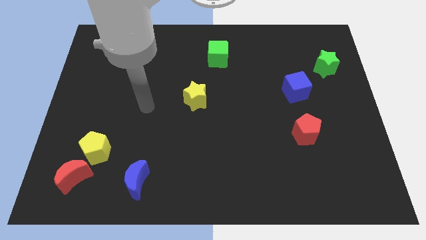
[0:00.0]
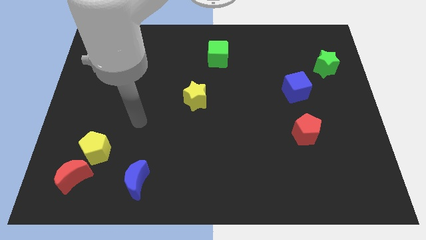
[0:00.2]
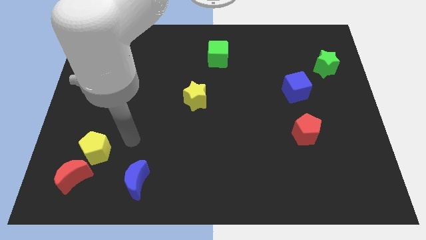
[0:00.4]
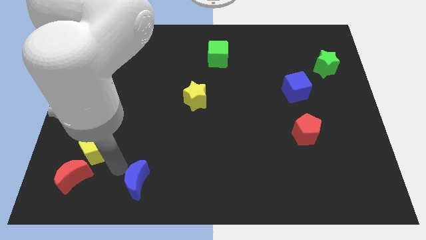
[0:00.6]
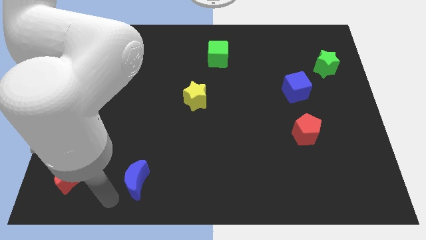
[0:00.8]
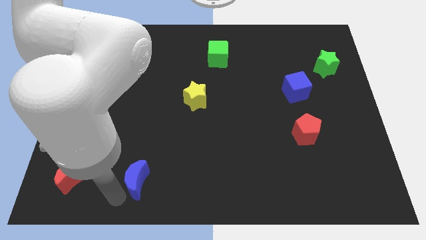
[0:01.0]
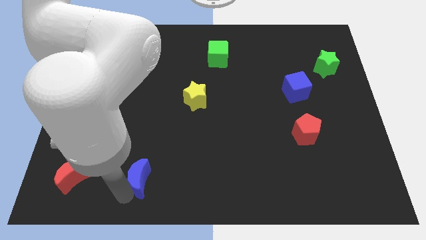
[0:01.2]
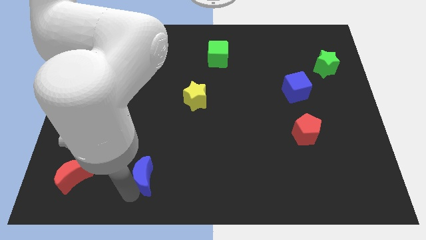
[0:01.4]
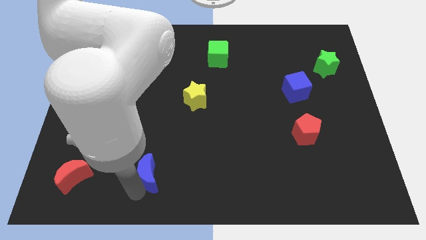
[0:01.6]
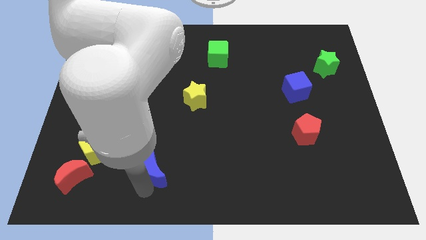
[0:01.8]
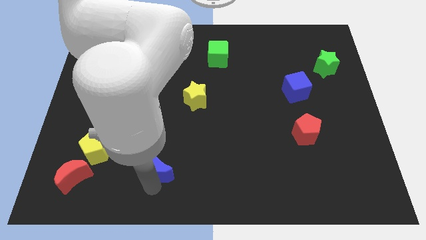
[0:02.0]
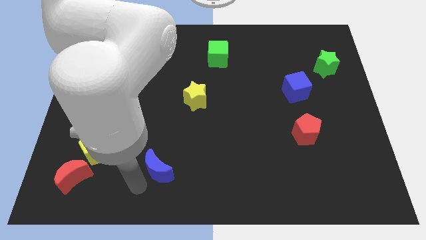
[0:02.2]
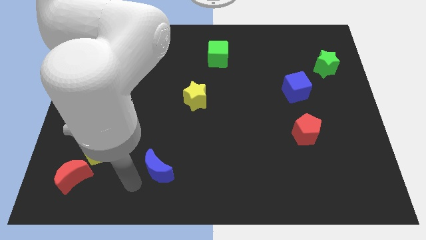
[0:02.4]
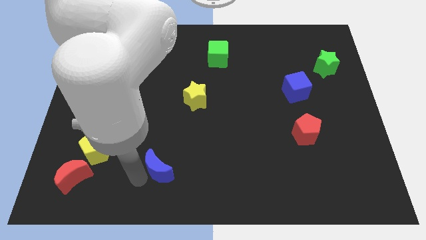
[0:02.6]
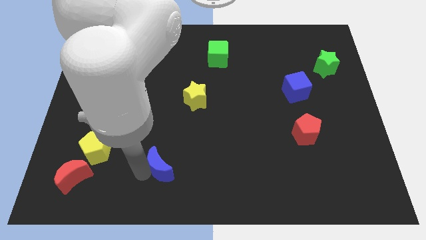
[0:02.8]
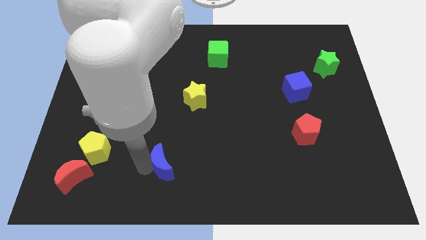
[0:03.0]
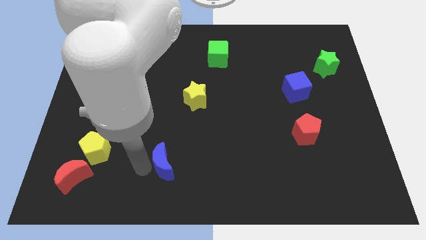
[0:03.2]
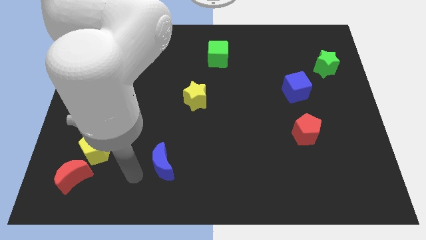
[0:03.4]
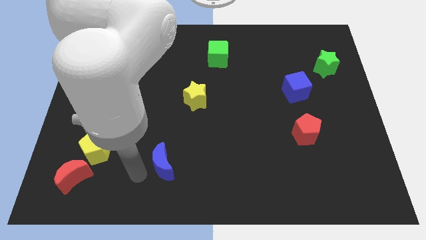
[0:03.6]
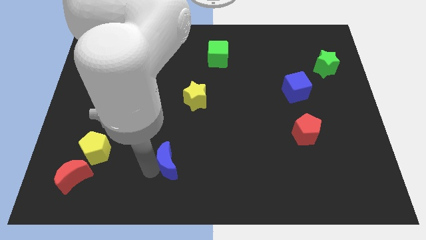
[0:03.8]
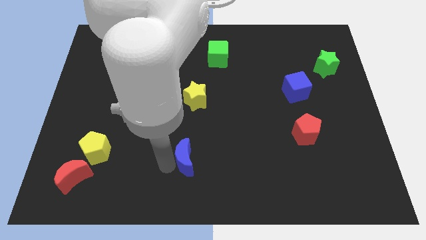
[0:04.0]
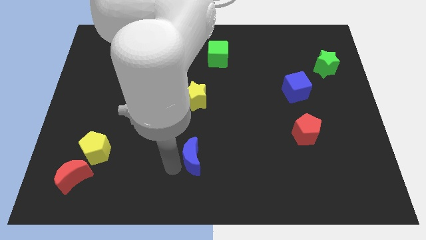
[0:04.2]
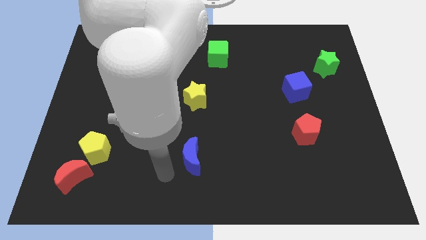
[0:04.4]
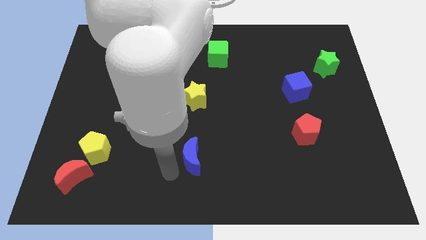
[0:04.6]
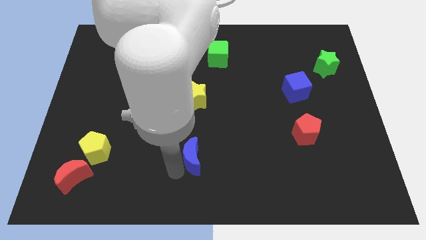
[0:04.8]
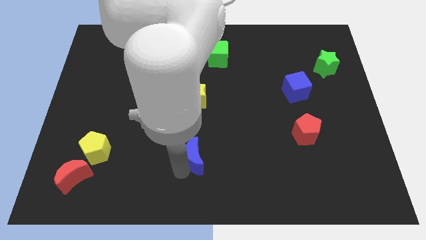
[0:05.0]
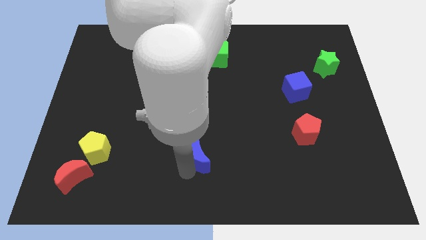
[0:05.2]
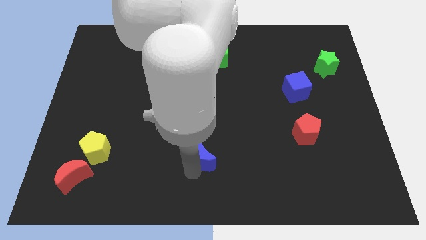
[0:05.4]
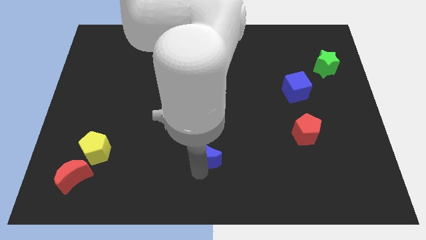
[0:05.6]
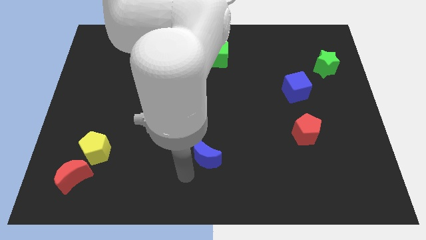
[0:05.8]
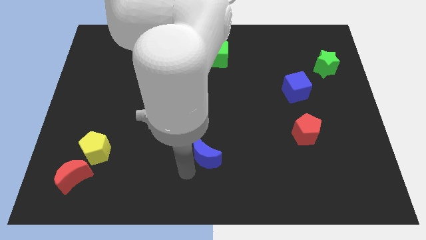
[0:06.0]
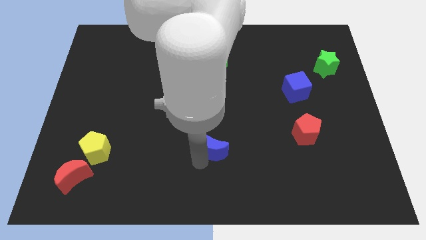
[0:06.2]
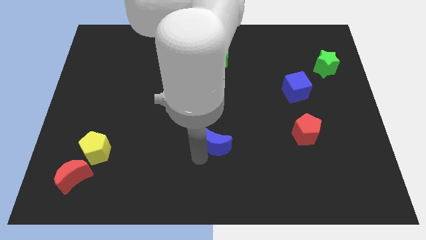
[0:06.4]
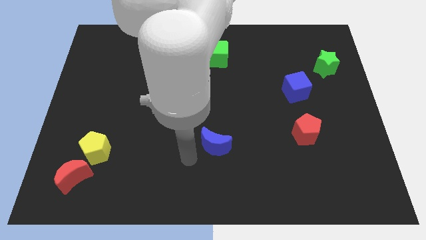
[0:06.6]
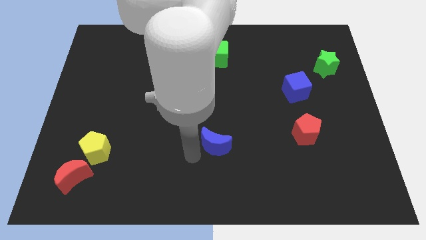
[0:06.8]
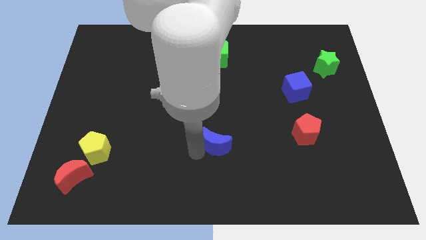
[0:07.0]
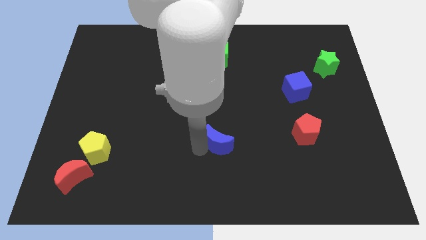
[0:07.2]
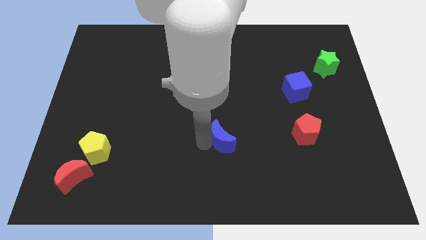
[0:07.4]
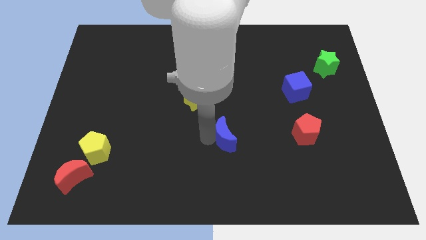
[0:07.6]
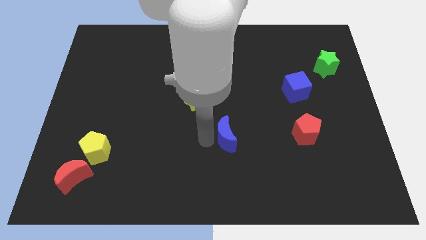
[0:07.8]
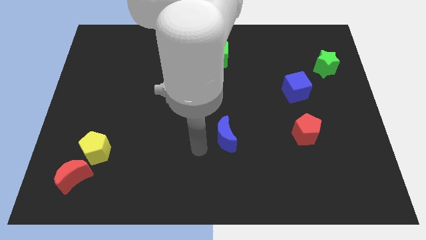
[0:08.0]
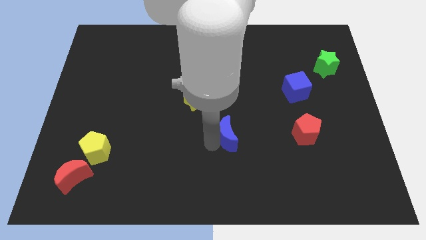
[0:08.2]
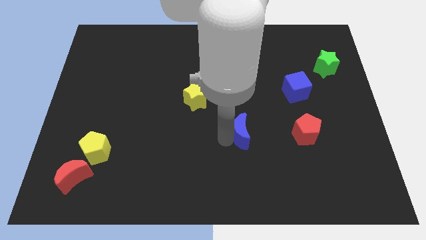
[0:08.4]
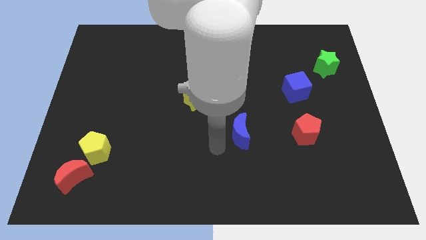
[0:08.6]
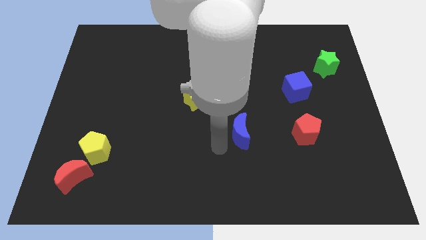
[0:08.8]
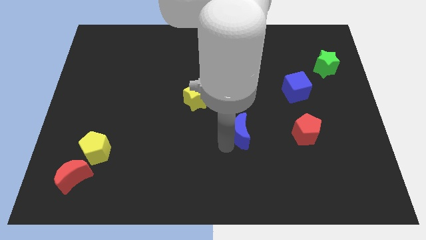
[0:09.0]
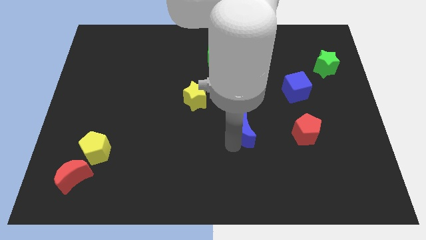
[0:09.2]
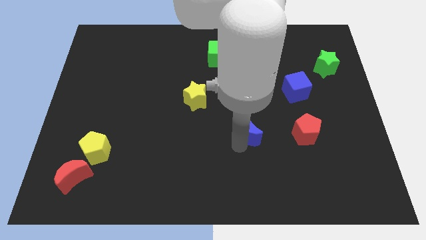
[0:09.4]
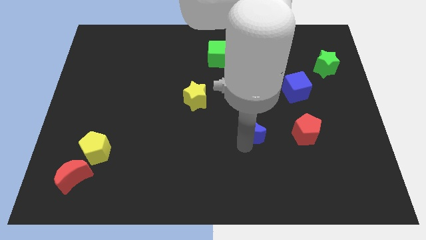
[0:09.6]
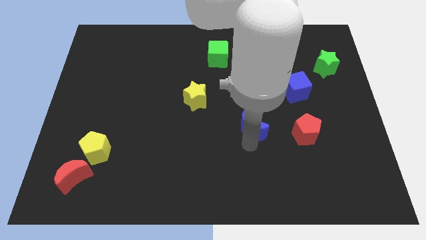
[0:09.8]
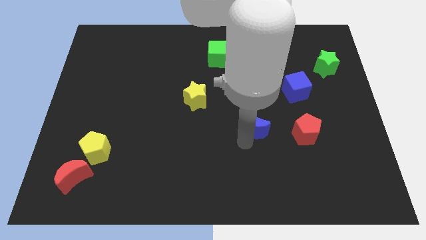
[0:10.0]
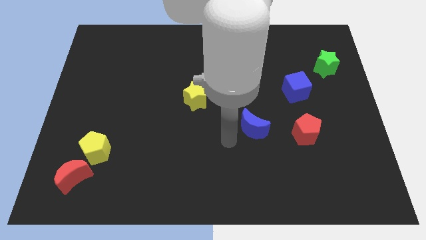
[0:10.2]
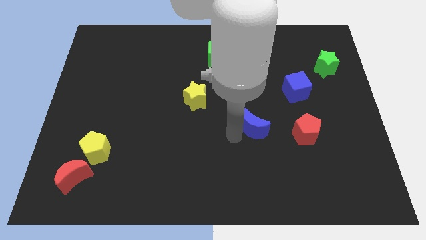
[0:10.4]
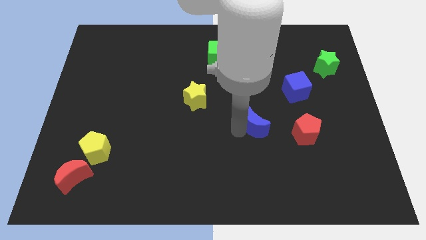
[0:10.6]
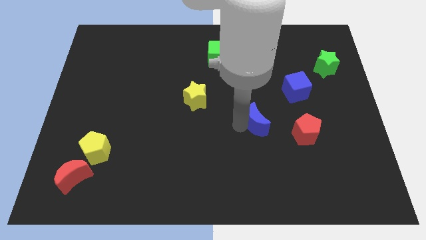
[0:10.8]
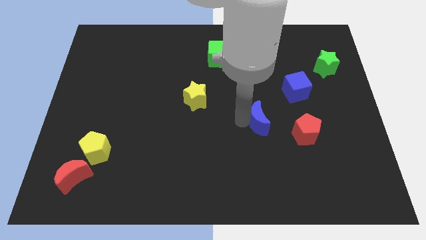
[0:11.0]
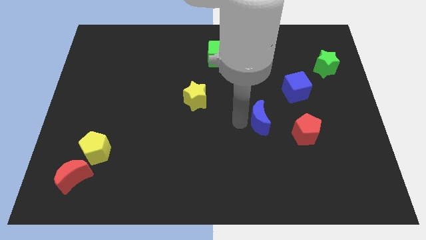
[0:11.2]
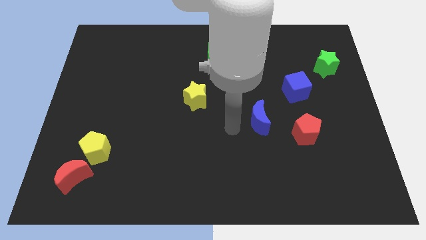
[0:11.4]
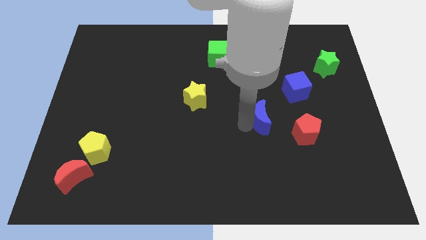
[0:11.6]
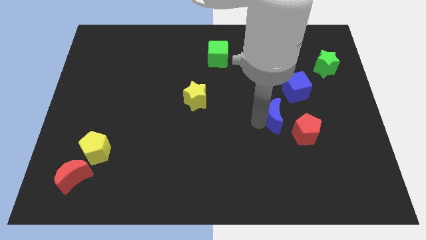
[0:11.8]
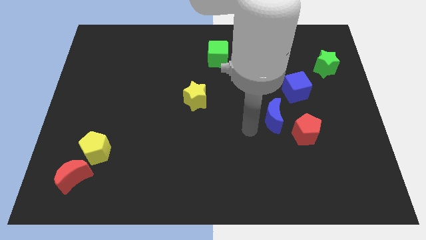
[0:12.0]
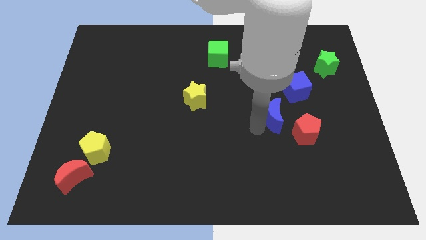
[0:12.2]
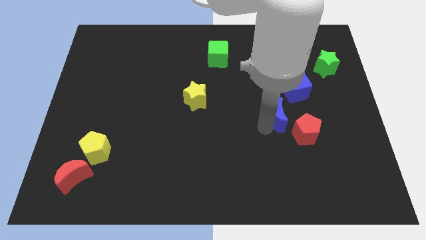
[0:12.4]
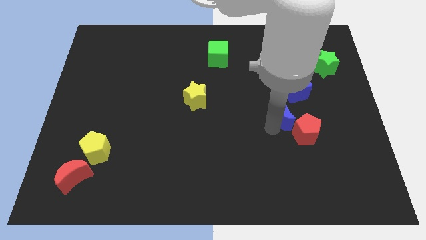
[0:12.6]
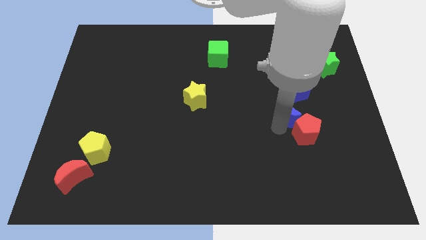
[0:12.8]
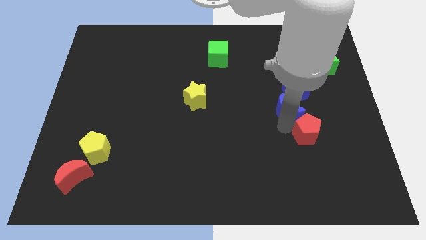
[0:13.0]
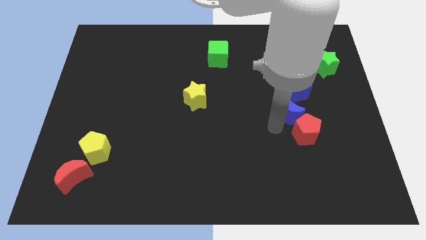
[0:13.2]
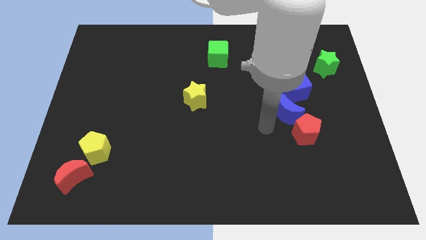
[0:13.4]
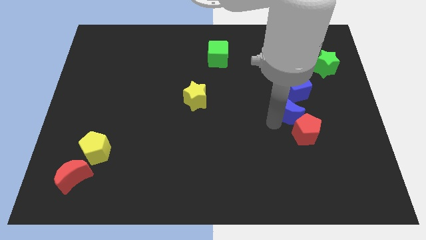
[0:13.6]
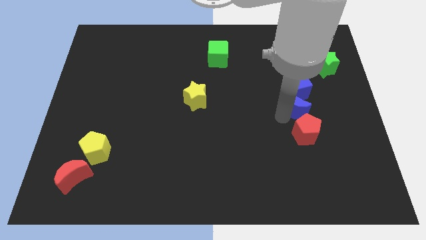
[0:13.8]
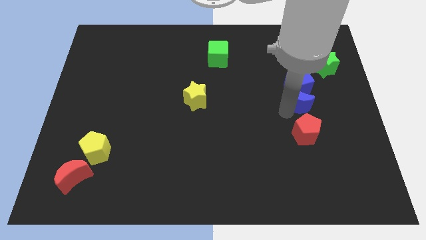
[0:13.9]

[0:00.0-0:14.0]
move the blue moon to the bottom right side of the blue cube
